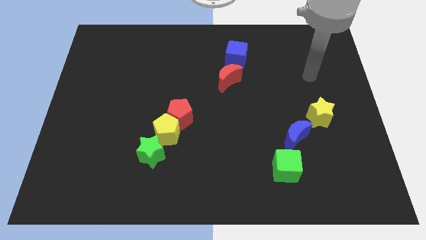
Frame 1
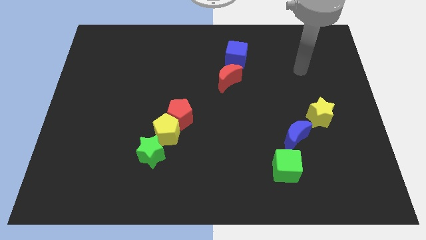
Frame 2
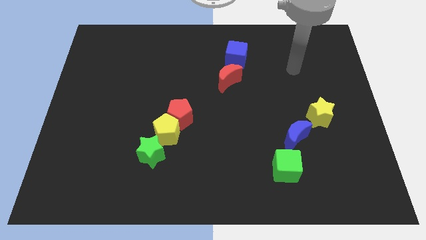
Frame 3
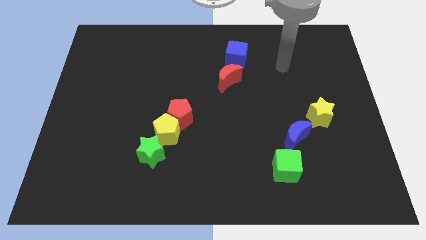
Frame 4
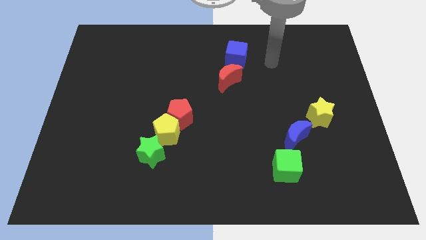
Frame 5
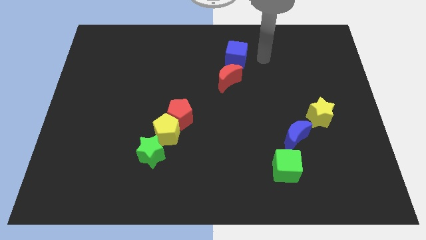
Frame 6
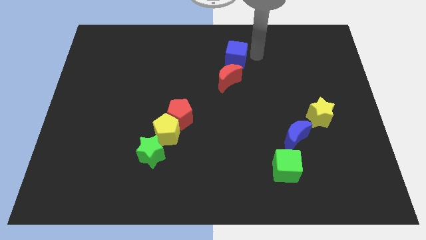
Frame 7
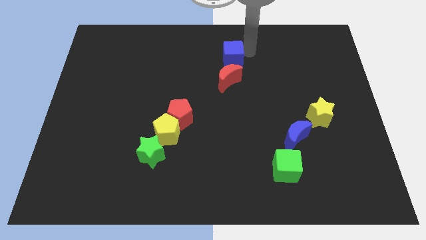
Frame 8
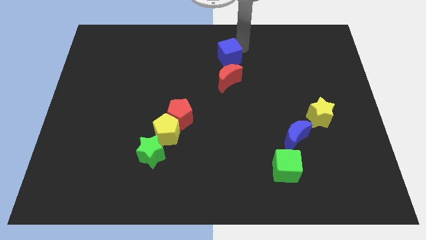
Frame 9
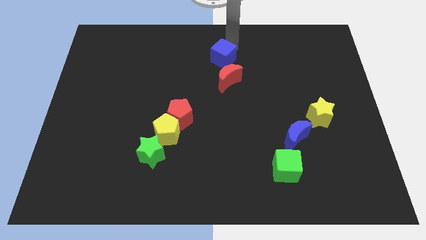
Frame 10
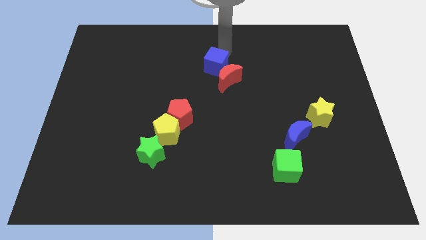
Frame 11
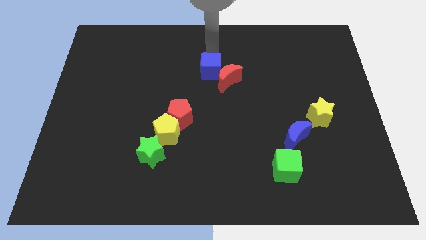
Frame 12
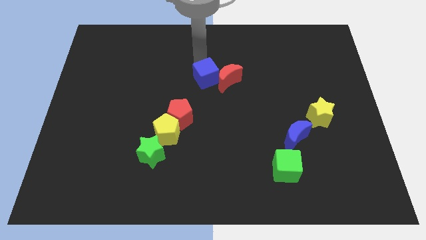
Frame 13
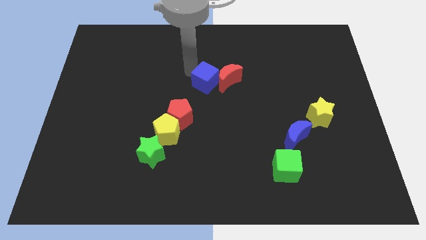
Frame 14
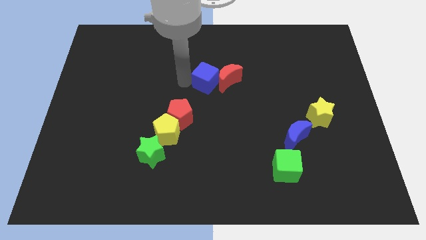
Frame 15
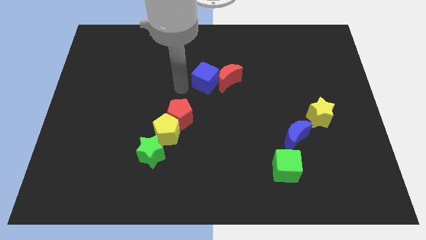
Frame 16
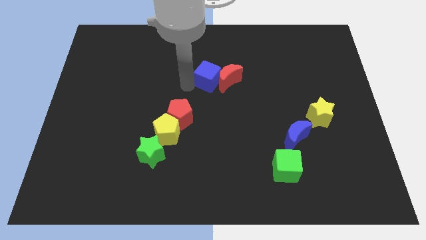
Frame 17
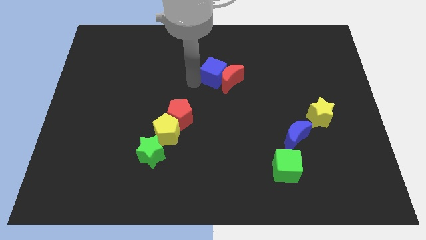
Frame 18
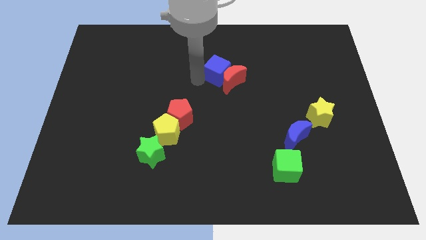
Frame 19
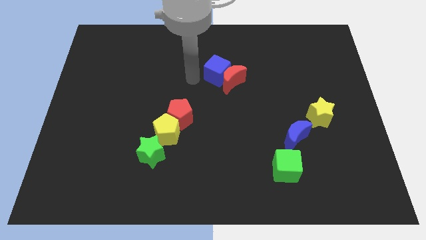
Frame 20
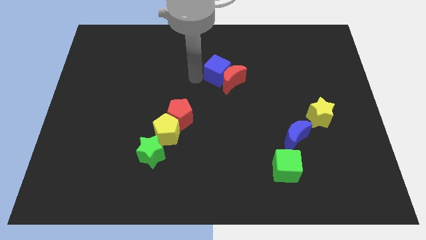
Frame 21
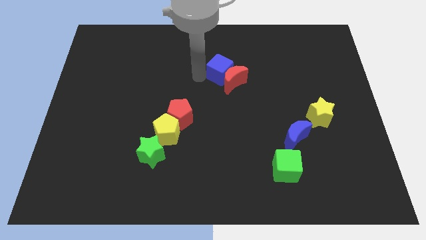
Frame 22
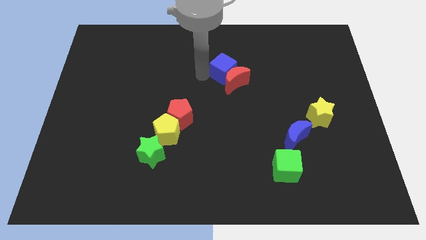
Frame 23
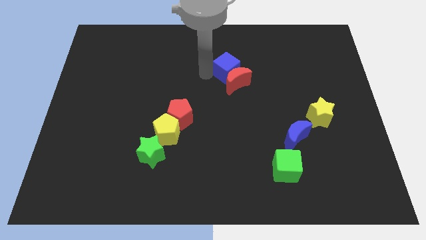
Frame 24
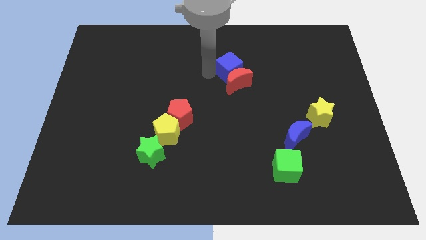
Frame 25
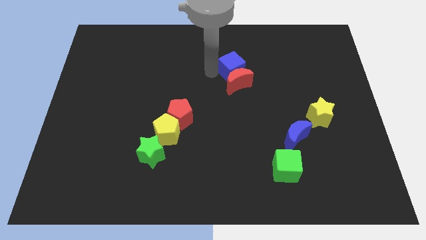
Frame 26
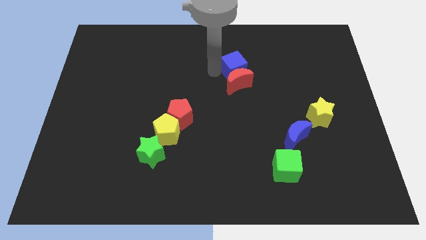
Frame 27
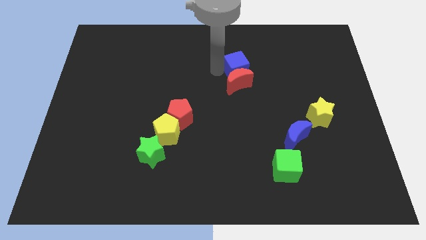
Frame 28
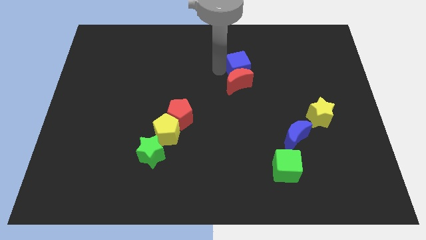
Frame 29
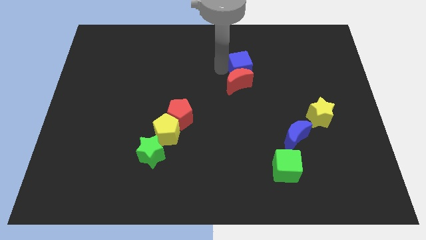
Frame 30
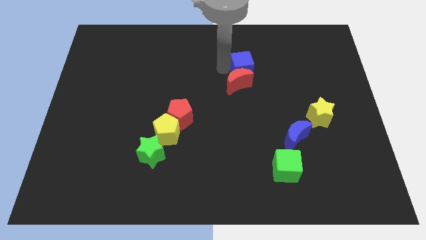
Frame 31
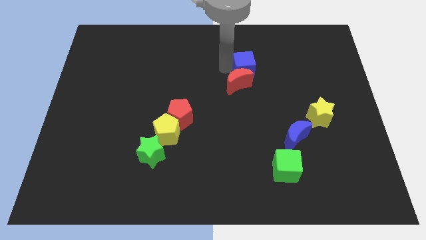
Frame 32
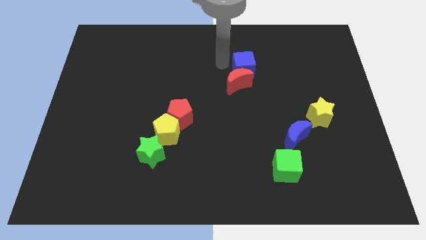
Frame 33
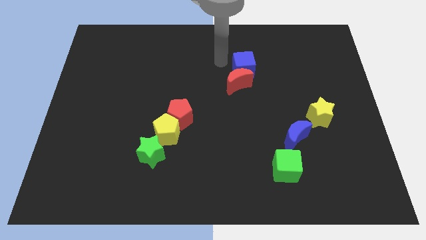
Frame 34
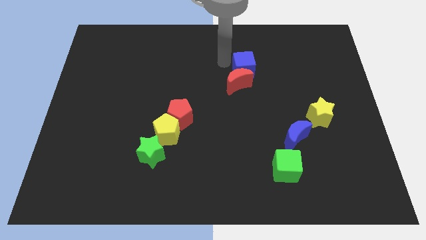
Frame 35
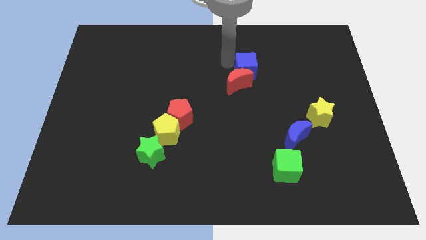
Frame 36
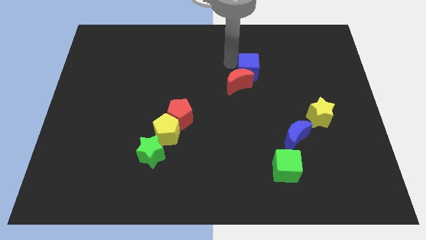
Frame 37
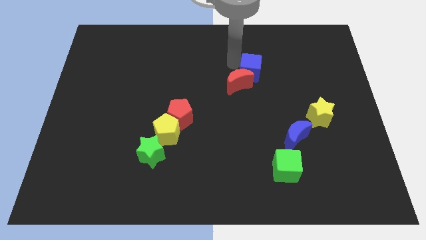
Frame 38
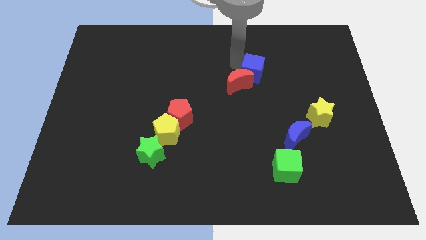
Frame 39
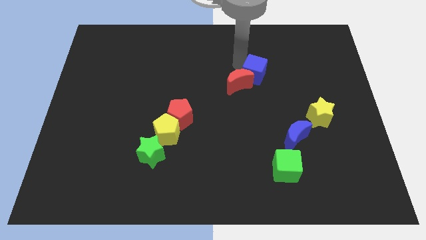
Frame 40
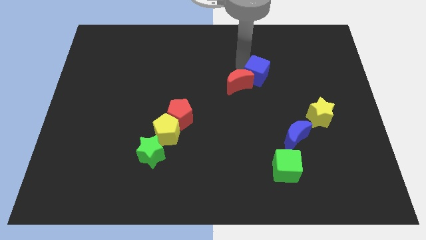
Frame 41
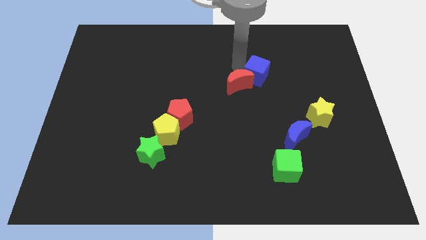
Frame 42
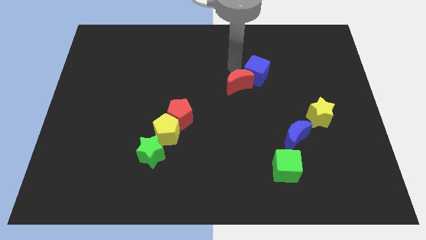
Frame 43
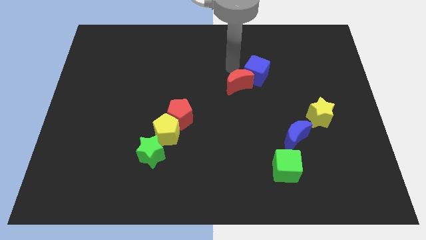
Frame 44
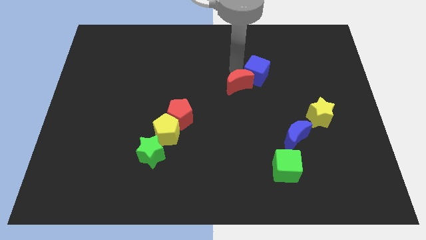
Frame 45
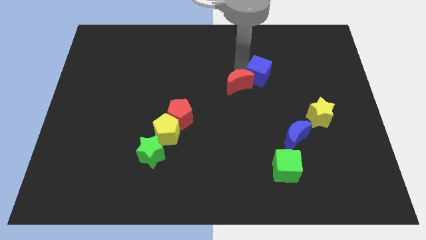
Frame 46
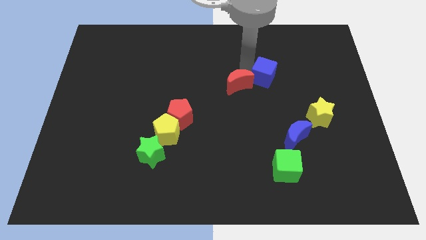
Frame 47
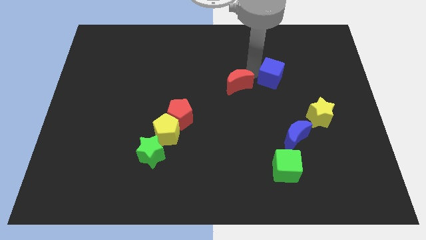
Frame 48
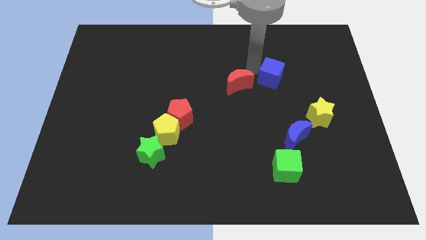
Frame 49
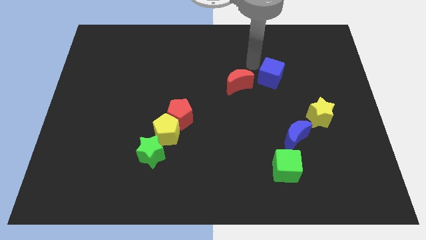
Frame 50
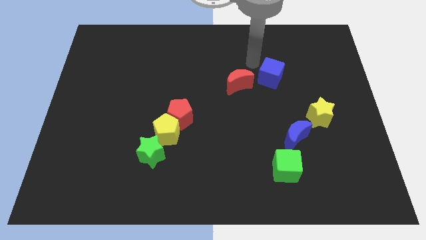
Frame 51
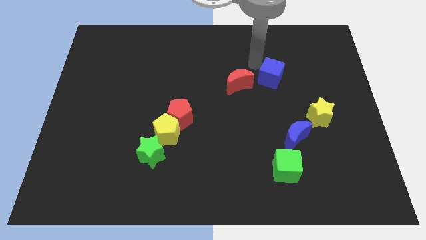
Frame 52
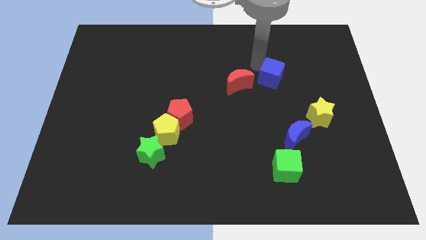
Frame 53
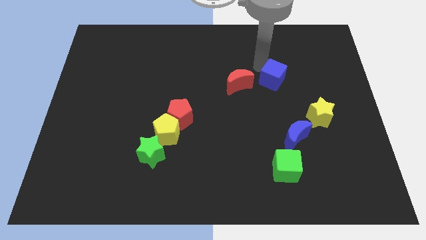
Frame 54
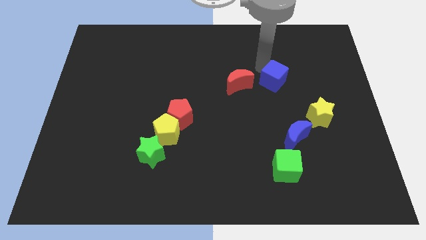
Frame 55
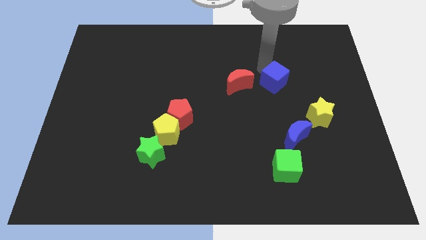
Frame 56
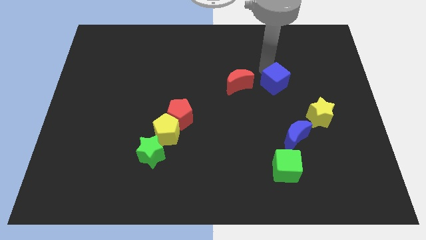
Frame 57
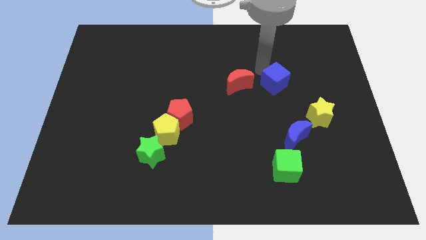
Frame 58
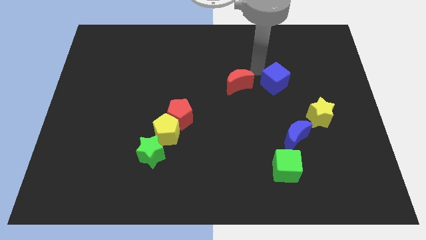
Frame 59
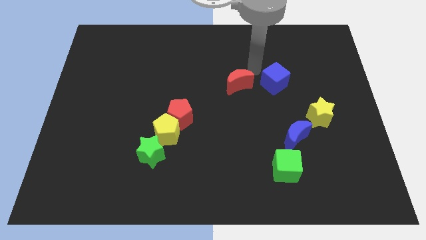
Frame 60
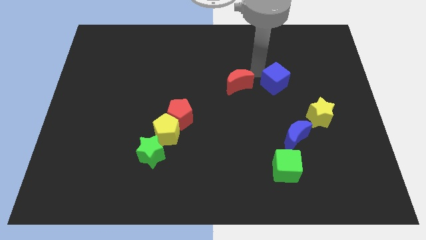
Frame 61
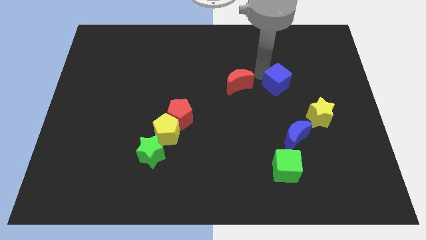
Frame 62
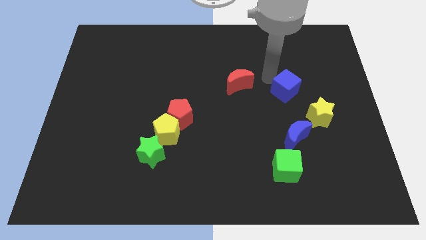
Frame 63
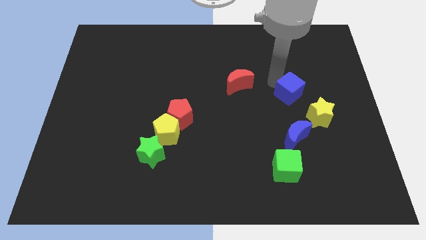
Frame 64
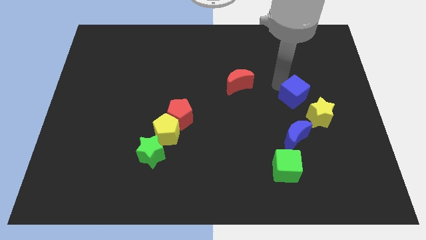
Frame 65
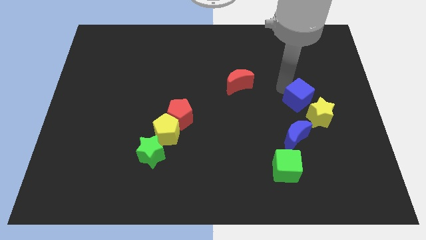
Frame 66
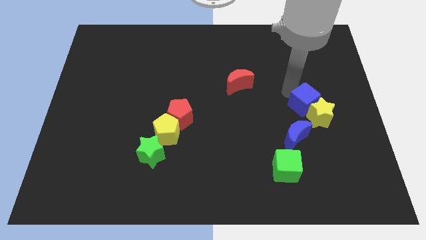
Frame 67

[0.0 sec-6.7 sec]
put the blue cube towards the yellow star

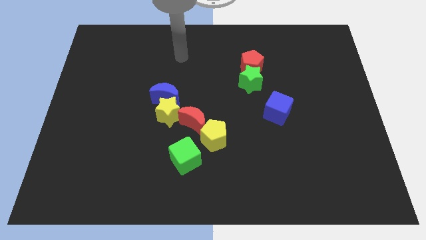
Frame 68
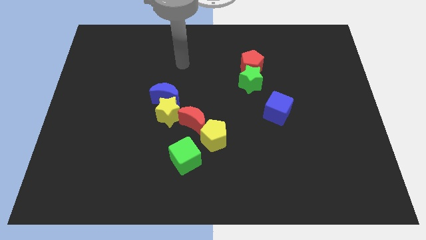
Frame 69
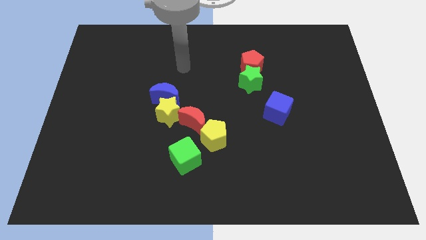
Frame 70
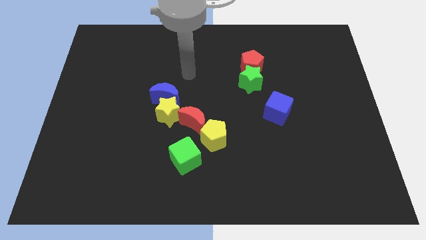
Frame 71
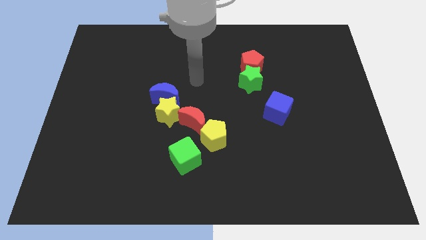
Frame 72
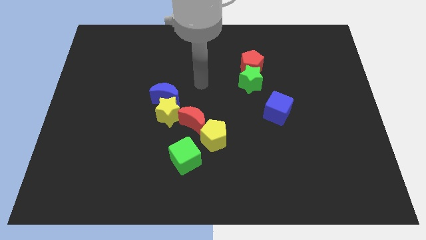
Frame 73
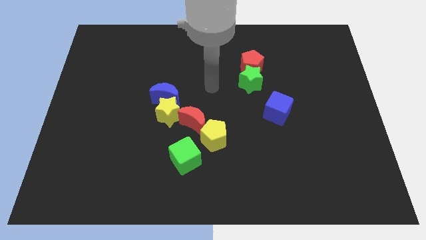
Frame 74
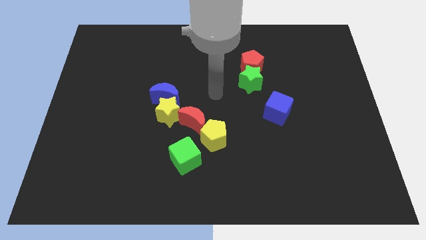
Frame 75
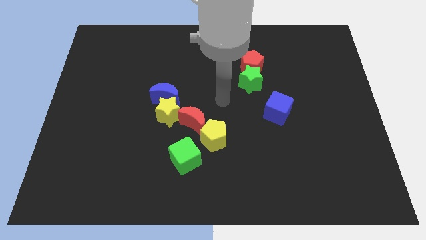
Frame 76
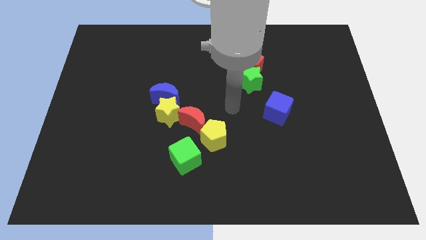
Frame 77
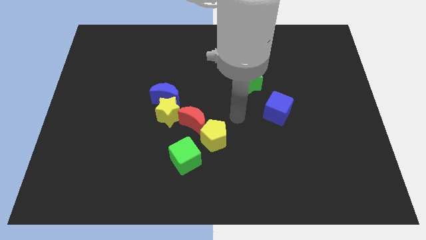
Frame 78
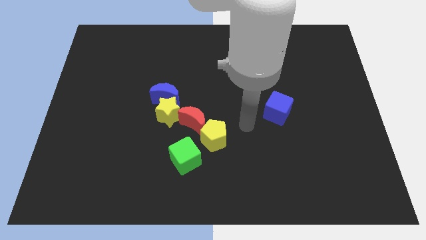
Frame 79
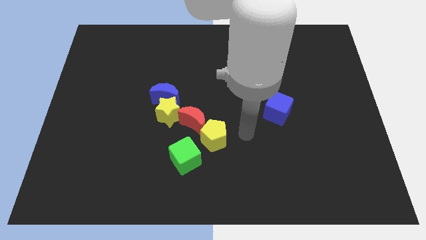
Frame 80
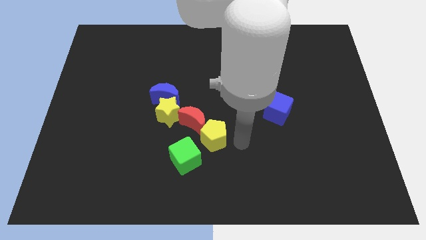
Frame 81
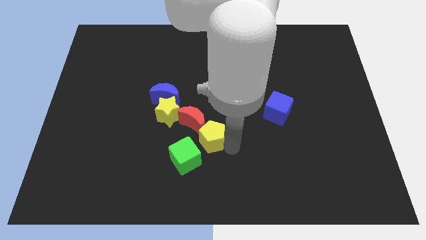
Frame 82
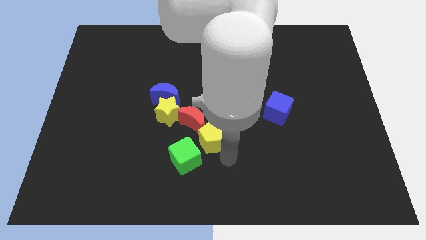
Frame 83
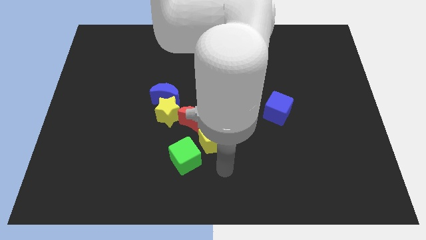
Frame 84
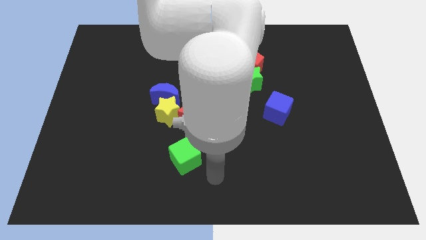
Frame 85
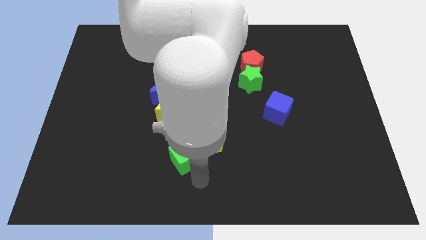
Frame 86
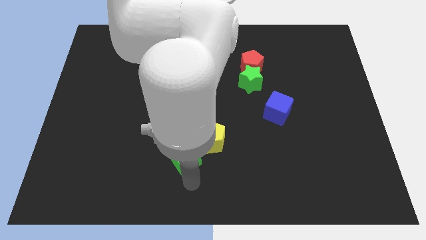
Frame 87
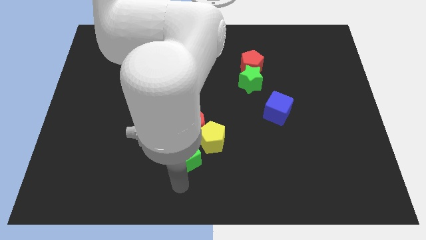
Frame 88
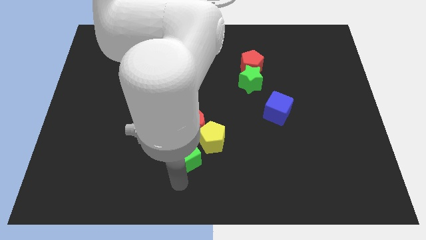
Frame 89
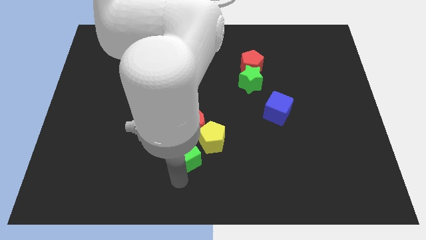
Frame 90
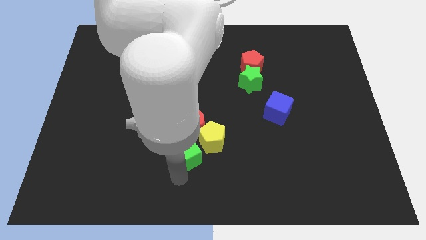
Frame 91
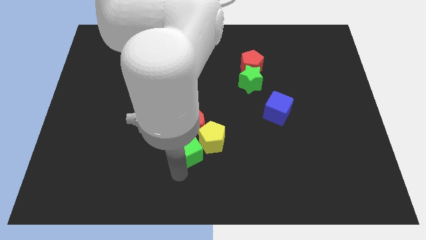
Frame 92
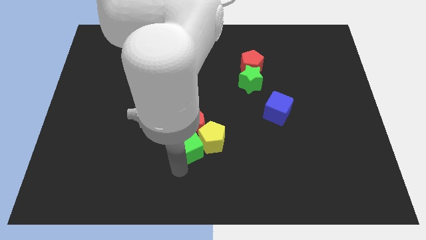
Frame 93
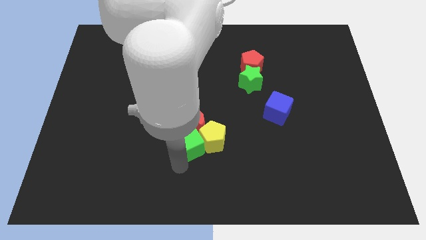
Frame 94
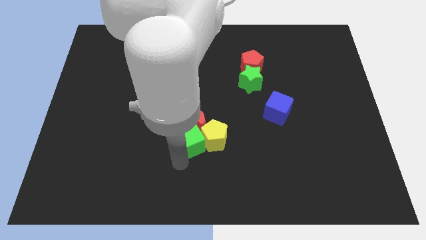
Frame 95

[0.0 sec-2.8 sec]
push the green cube close to the red moon
